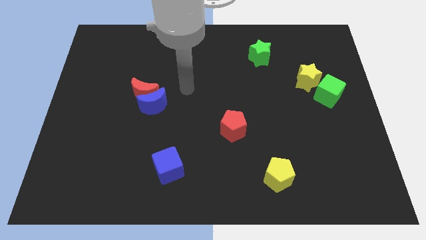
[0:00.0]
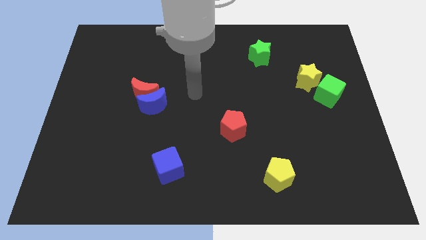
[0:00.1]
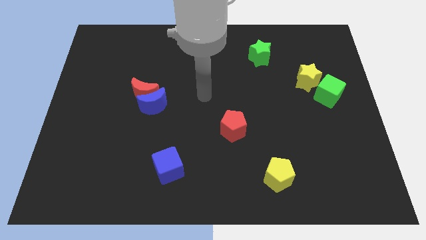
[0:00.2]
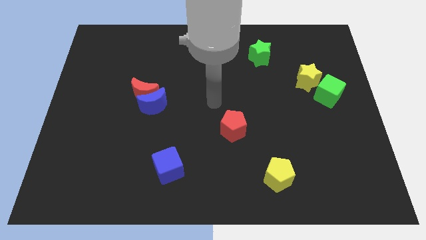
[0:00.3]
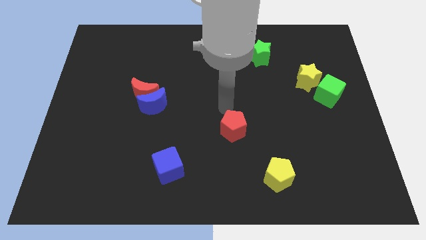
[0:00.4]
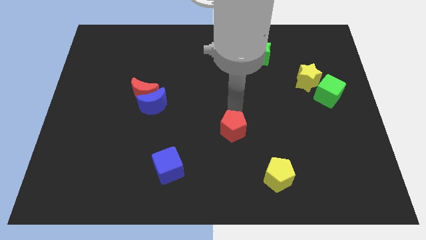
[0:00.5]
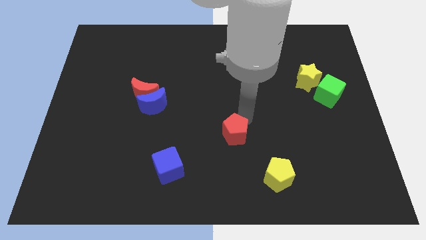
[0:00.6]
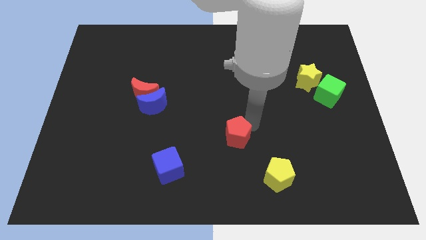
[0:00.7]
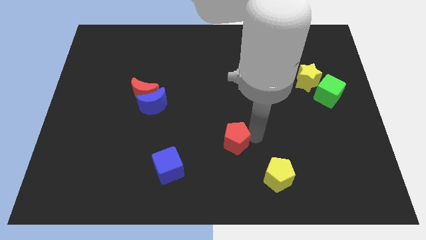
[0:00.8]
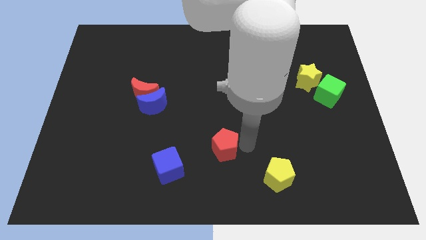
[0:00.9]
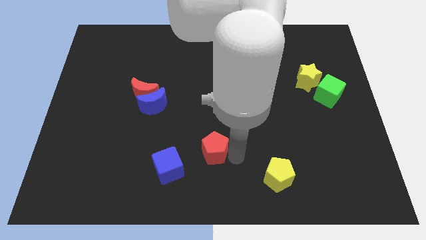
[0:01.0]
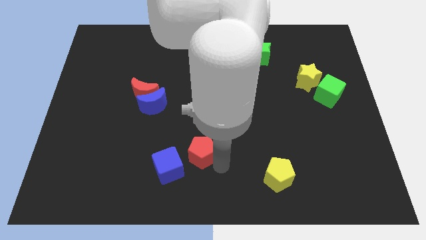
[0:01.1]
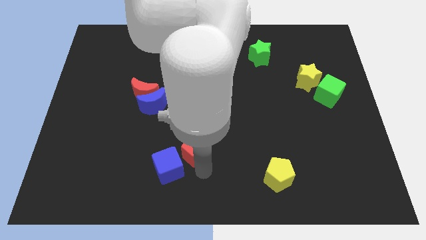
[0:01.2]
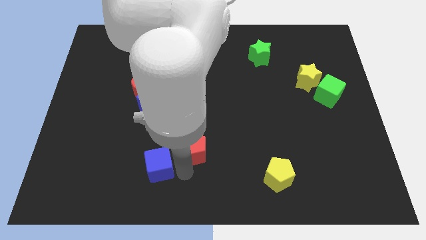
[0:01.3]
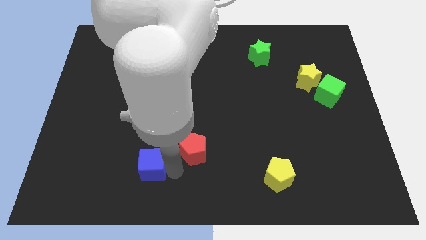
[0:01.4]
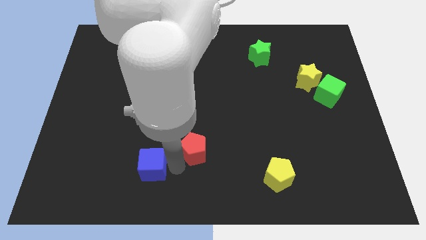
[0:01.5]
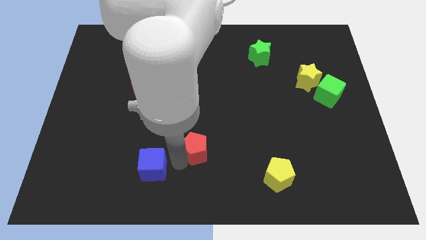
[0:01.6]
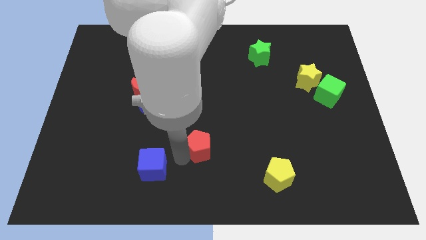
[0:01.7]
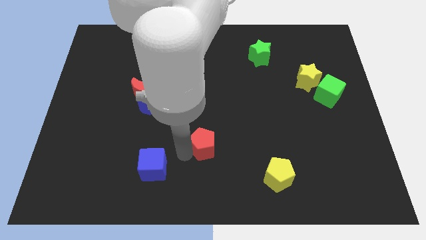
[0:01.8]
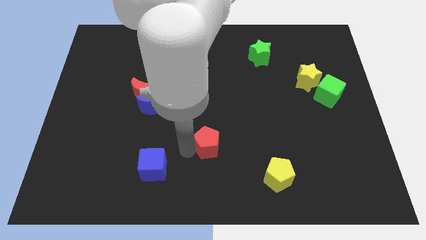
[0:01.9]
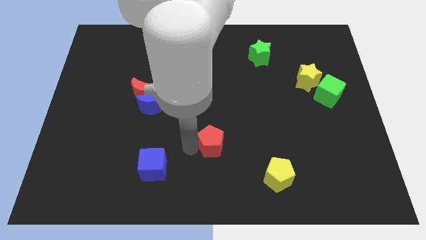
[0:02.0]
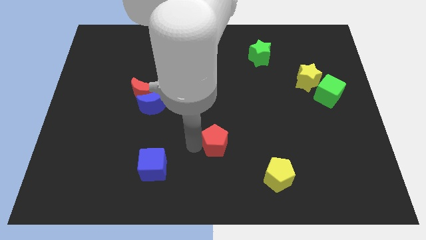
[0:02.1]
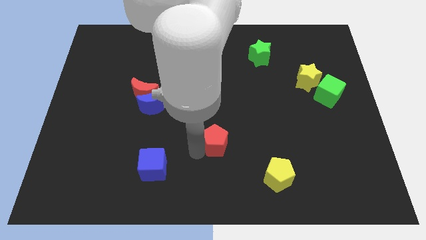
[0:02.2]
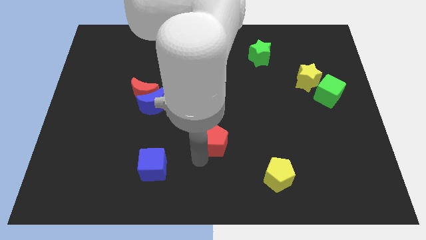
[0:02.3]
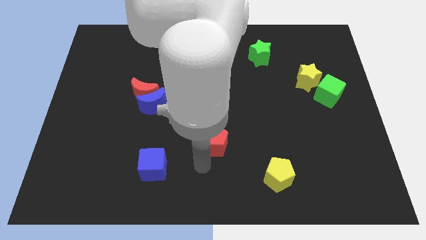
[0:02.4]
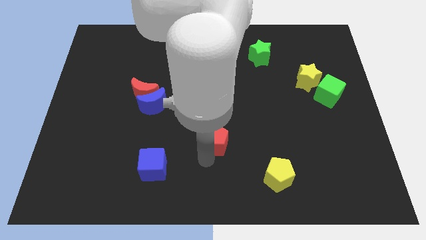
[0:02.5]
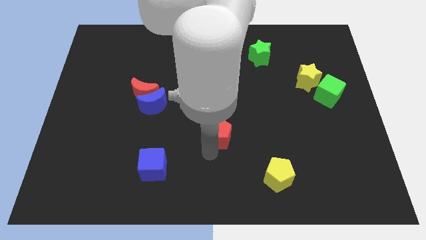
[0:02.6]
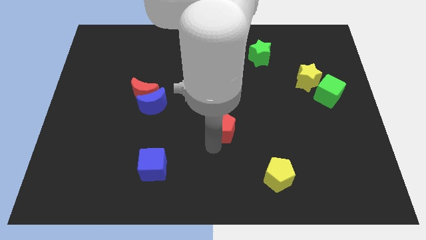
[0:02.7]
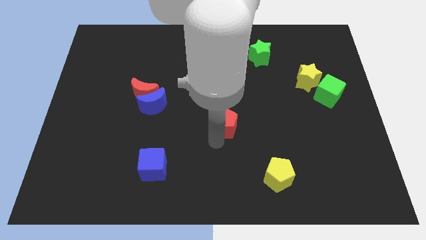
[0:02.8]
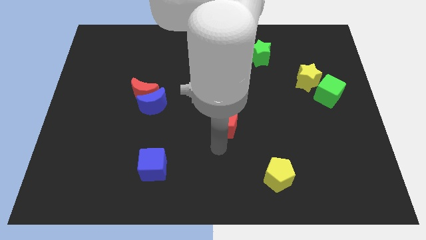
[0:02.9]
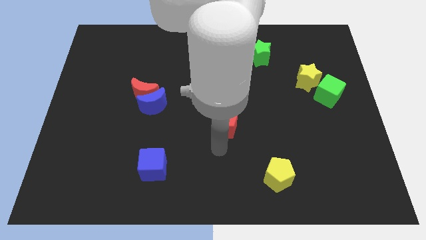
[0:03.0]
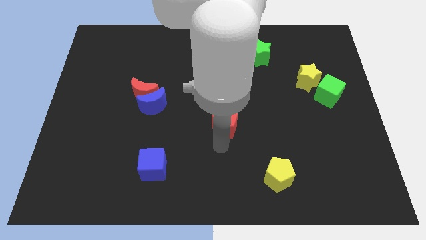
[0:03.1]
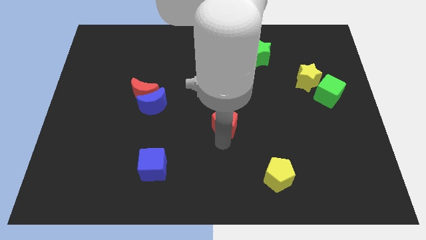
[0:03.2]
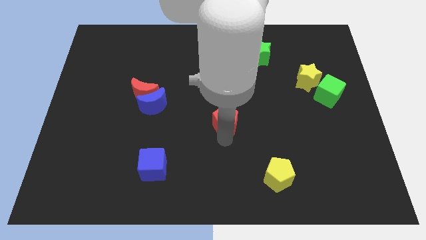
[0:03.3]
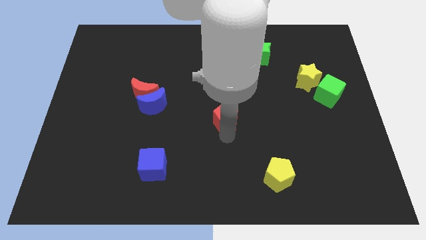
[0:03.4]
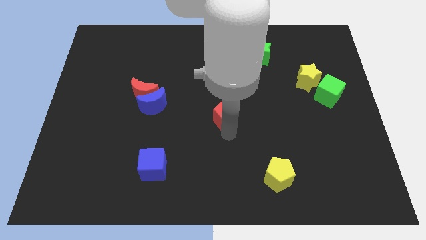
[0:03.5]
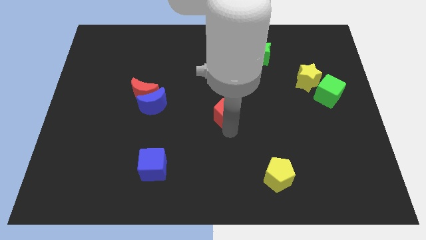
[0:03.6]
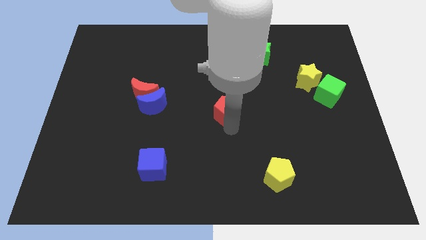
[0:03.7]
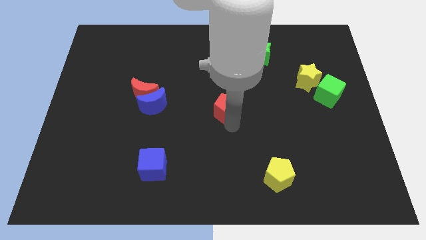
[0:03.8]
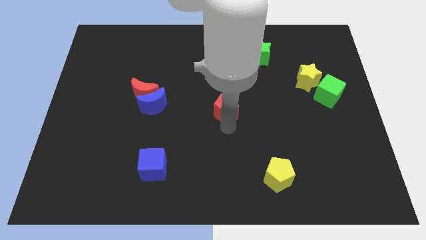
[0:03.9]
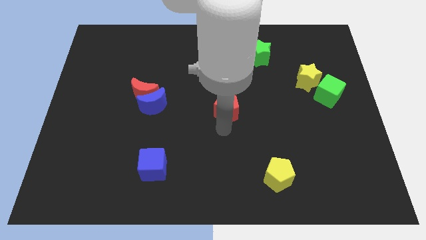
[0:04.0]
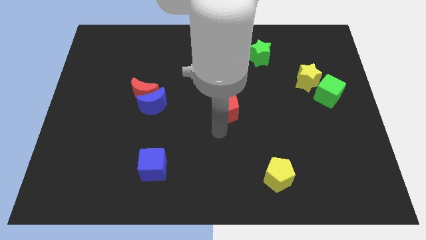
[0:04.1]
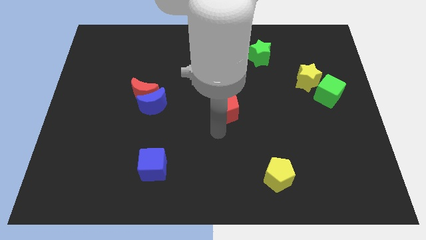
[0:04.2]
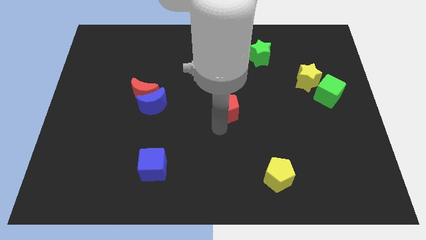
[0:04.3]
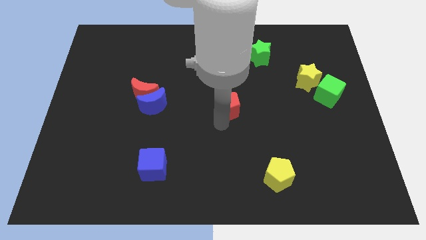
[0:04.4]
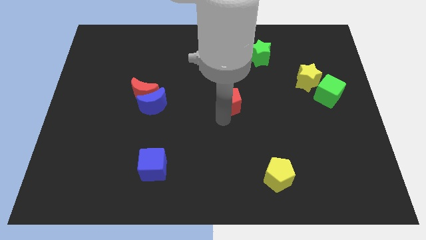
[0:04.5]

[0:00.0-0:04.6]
move the red pentagon upwards a bit

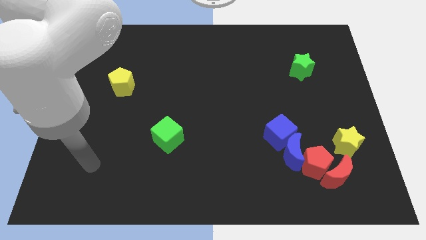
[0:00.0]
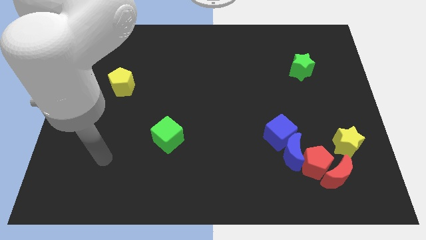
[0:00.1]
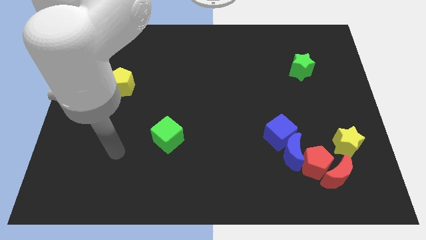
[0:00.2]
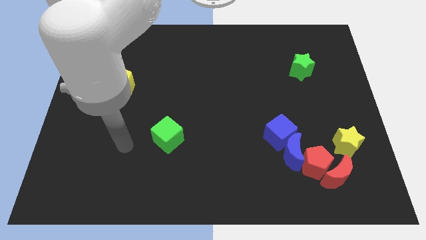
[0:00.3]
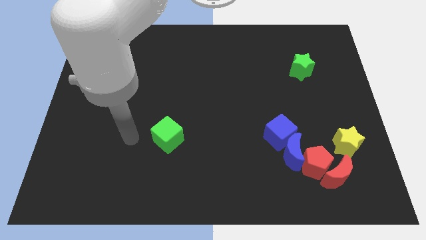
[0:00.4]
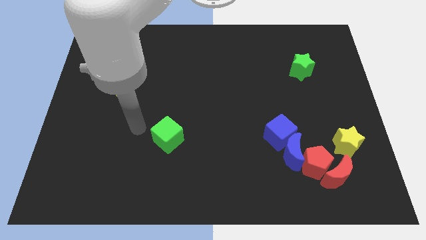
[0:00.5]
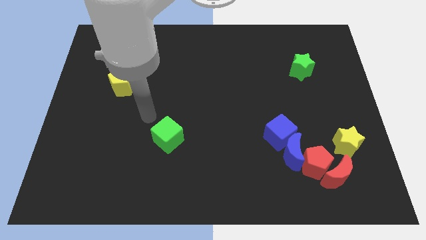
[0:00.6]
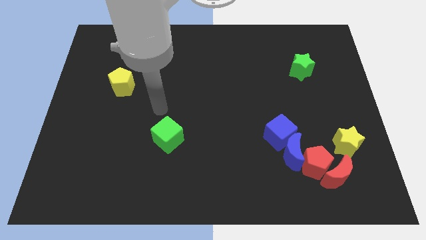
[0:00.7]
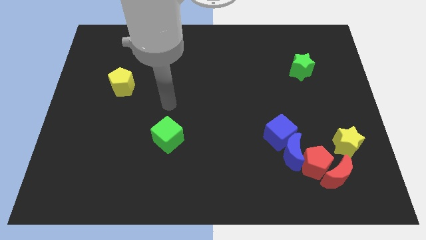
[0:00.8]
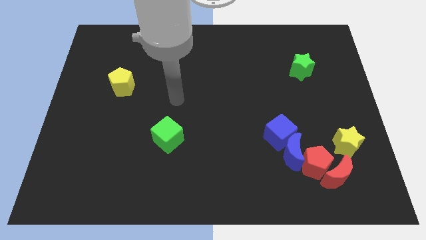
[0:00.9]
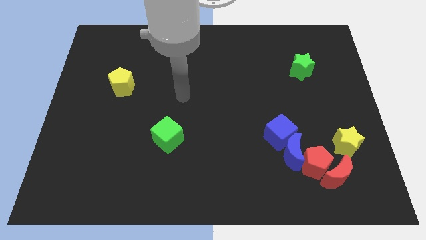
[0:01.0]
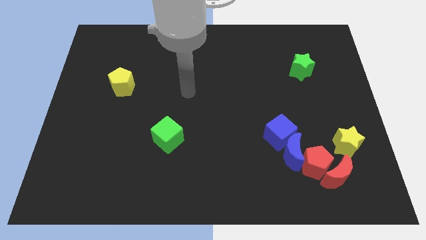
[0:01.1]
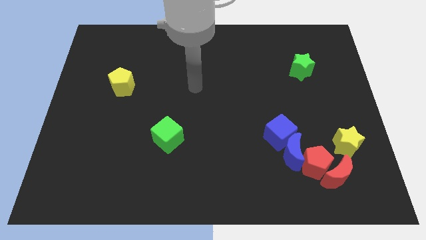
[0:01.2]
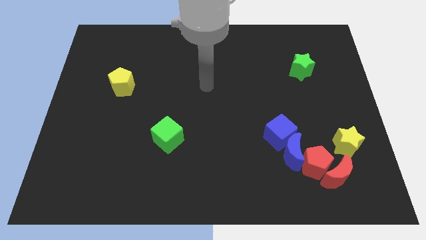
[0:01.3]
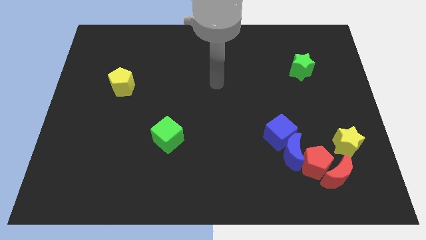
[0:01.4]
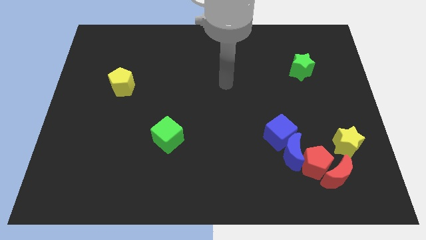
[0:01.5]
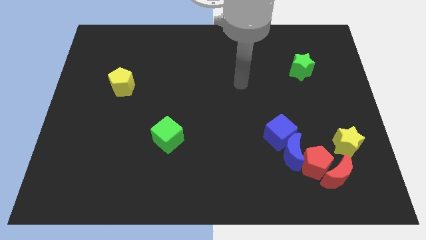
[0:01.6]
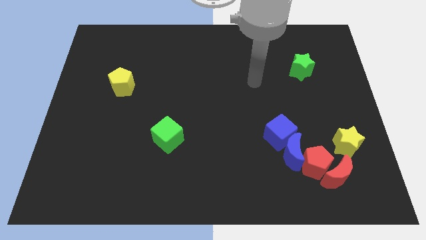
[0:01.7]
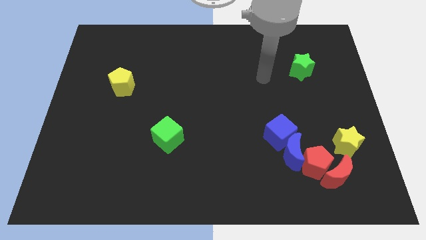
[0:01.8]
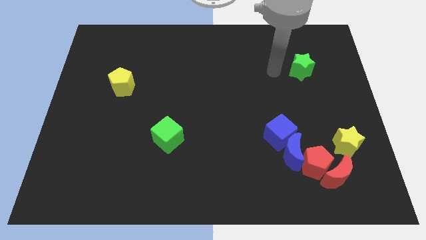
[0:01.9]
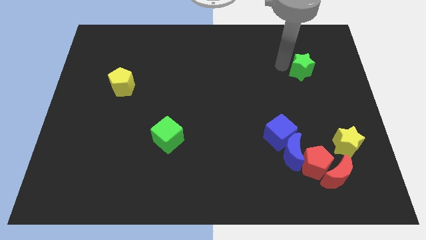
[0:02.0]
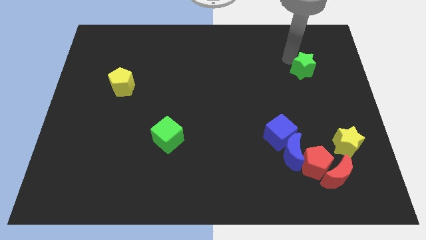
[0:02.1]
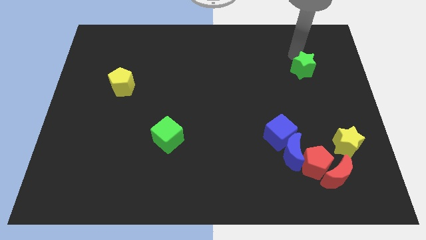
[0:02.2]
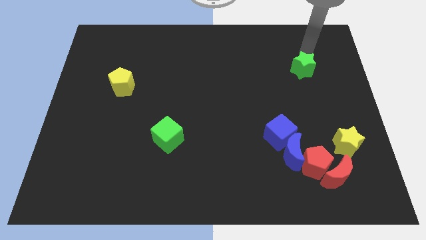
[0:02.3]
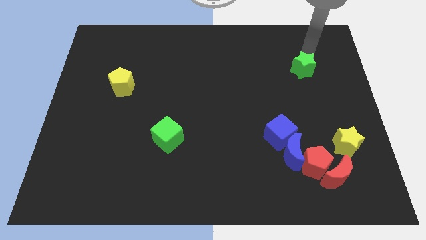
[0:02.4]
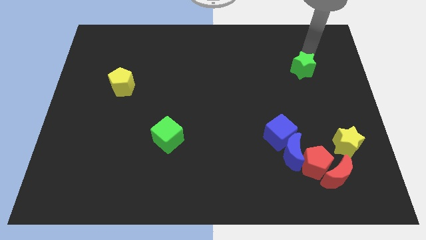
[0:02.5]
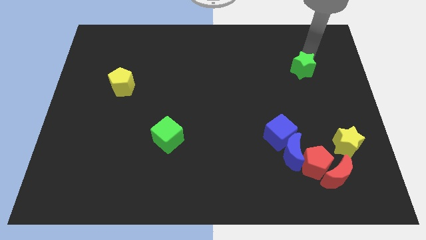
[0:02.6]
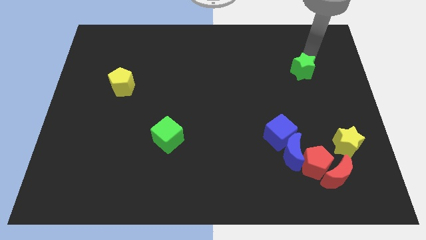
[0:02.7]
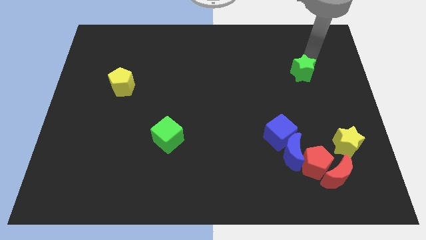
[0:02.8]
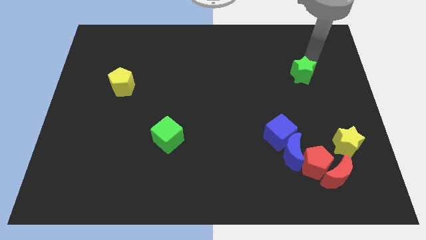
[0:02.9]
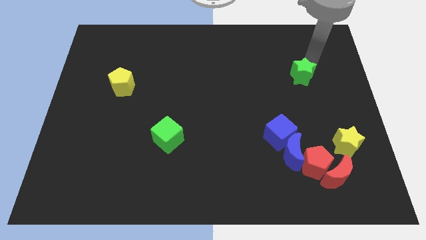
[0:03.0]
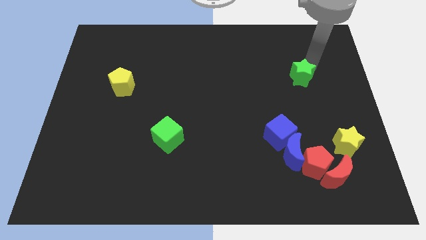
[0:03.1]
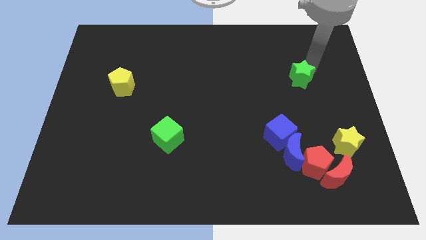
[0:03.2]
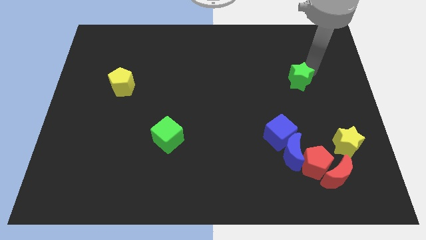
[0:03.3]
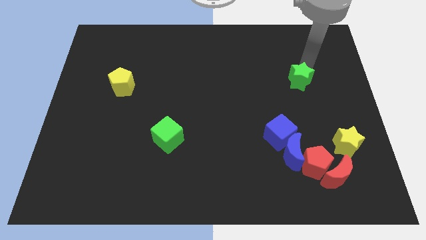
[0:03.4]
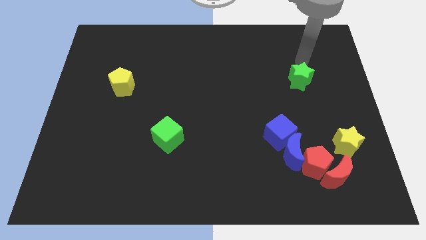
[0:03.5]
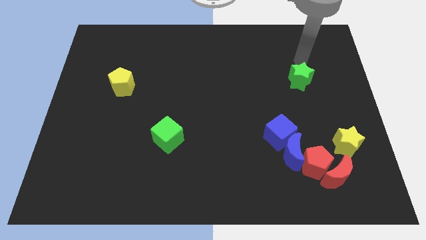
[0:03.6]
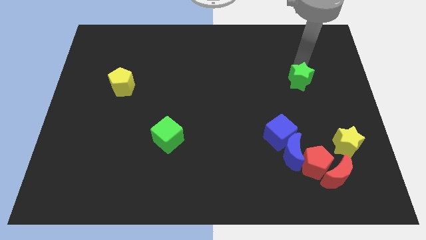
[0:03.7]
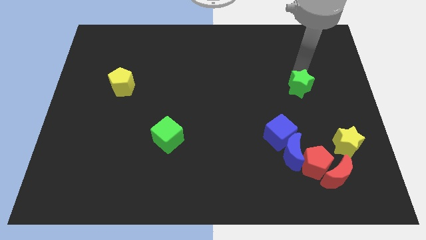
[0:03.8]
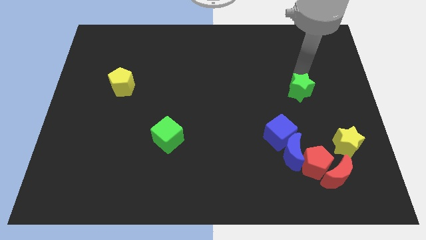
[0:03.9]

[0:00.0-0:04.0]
slide the green star somewhat down
